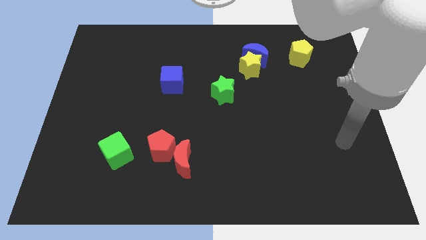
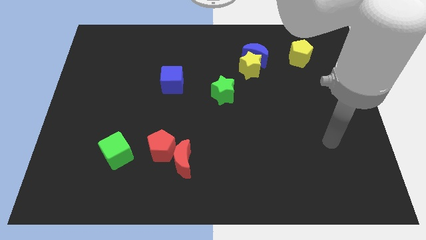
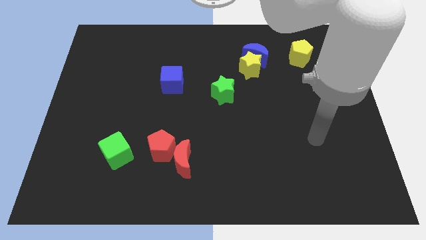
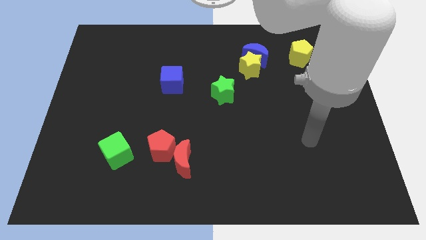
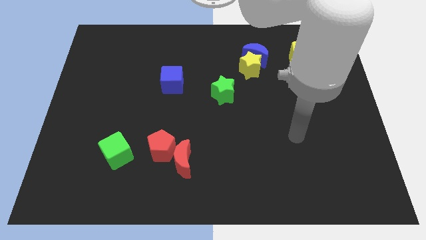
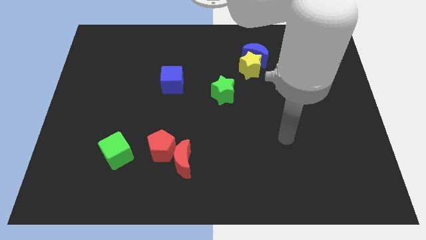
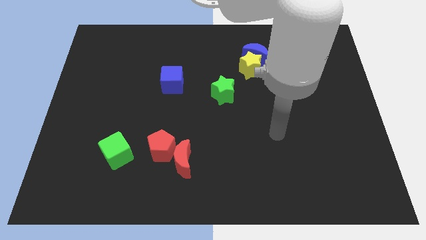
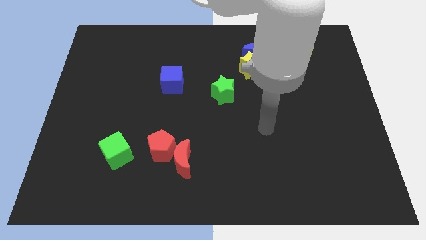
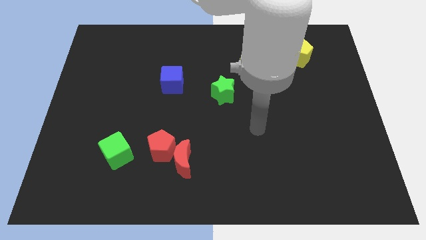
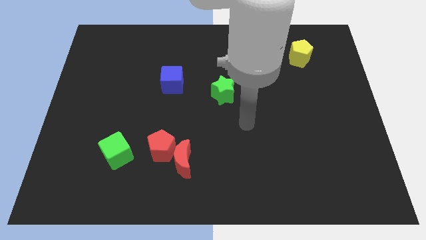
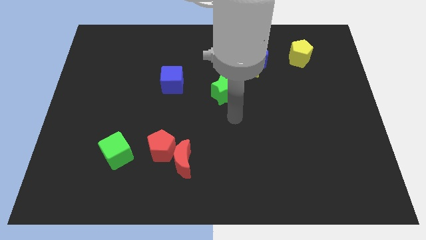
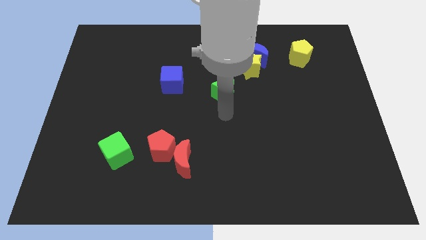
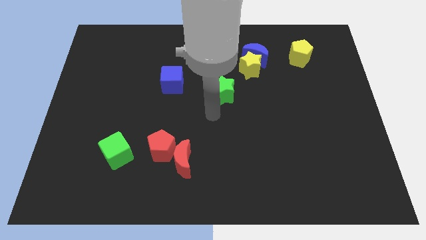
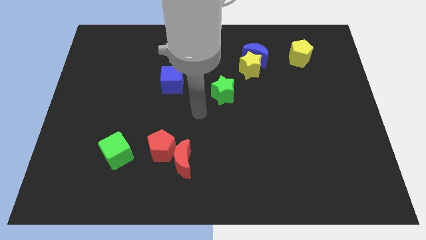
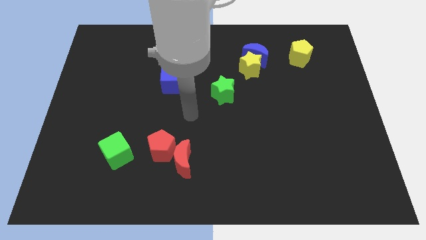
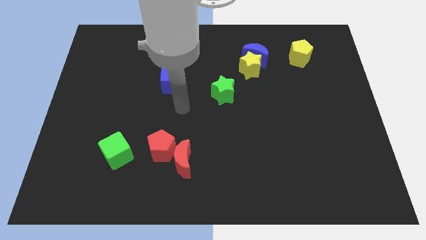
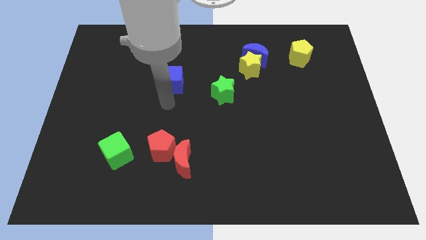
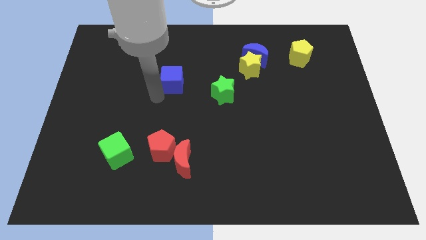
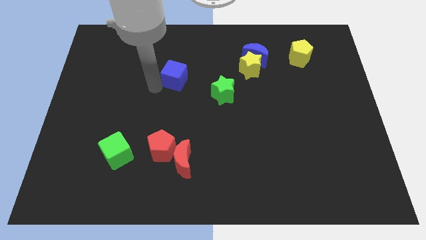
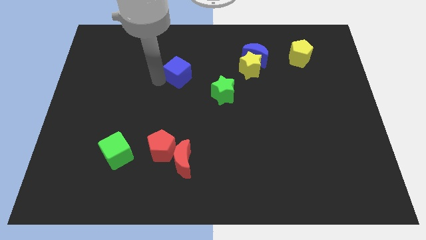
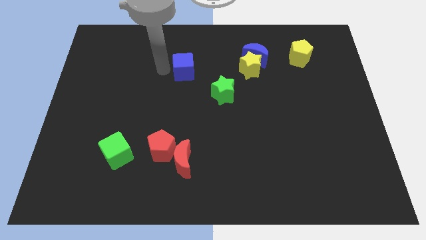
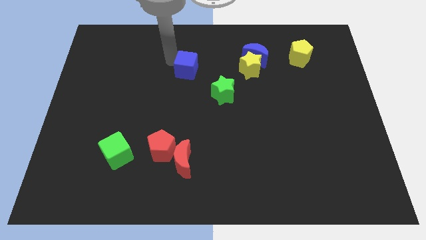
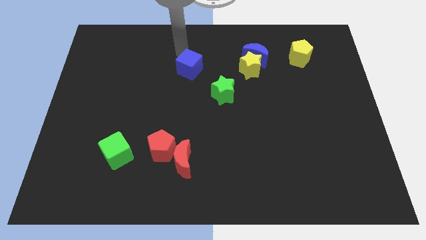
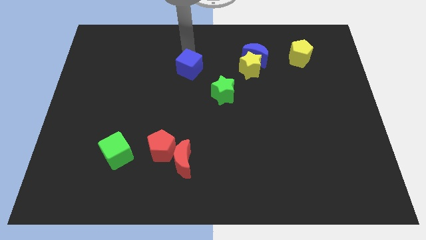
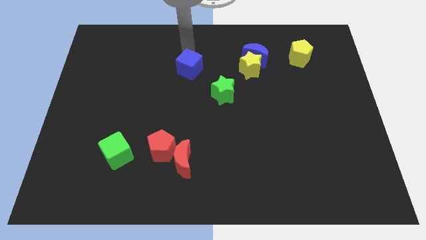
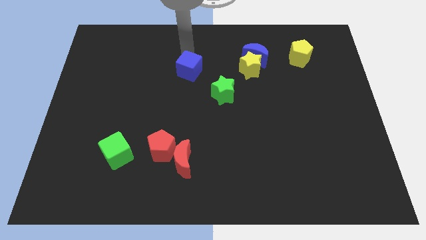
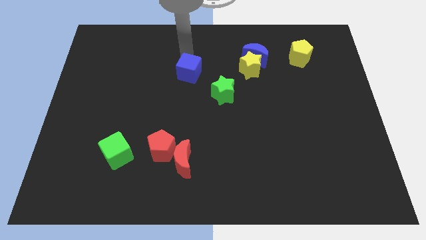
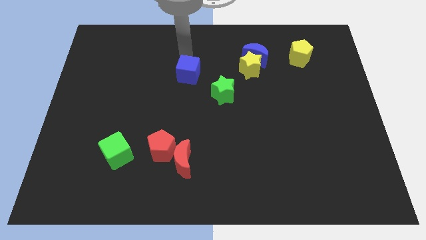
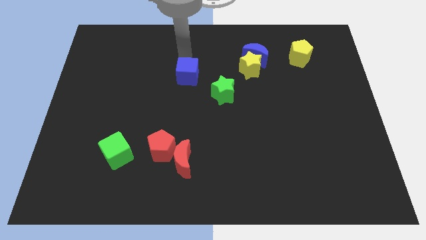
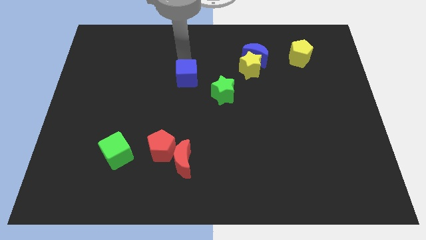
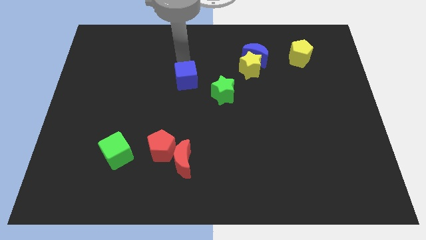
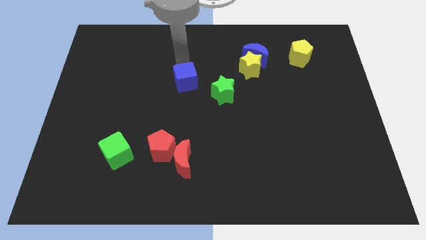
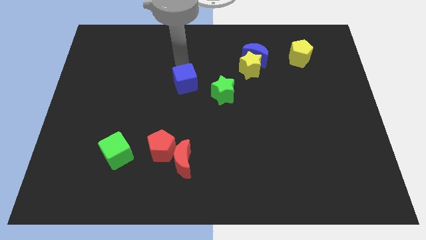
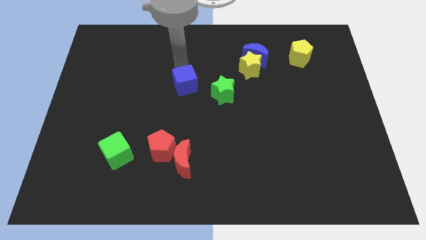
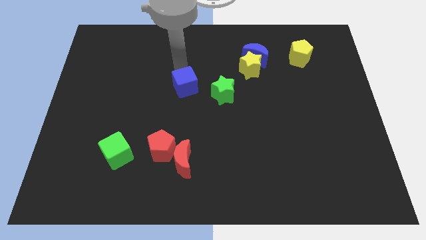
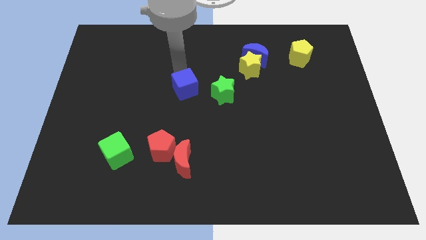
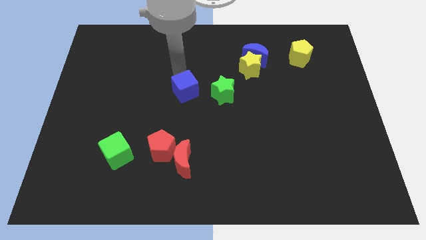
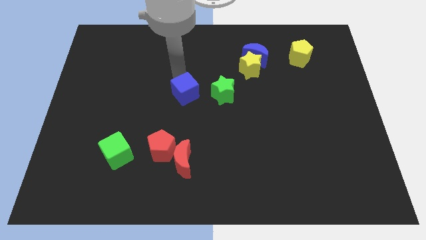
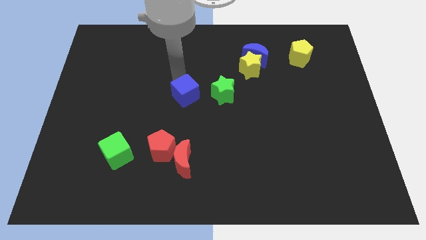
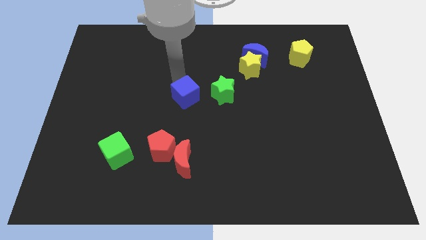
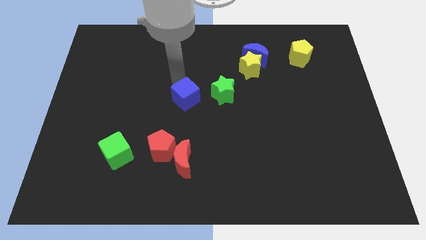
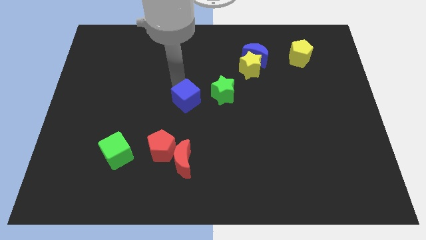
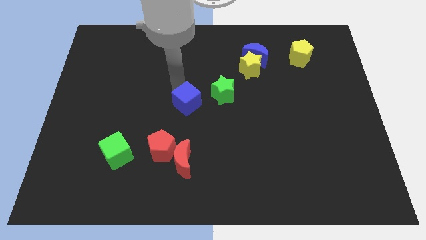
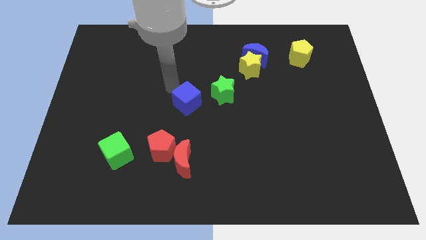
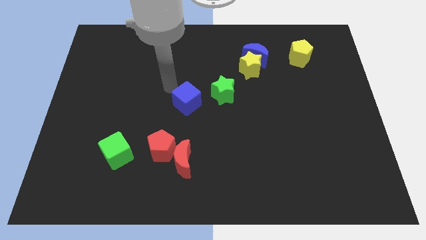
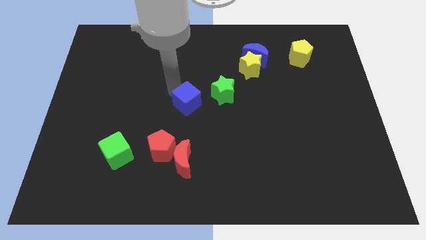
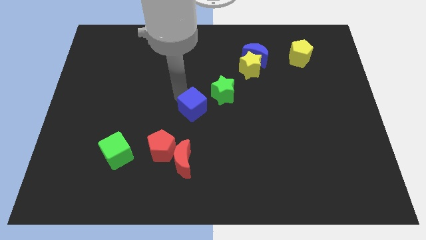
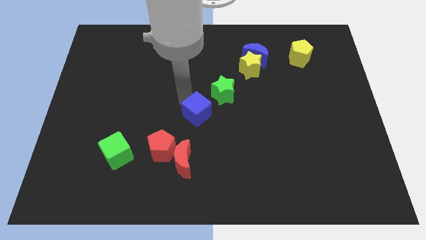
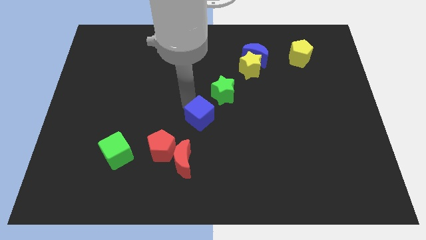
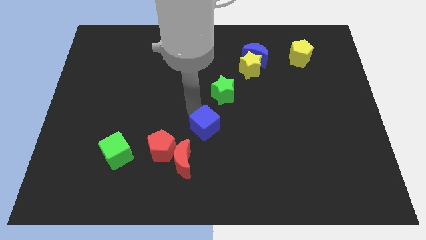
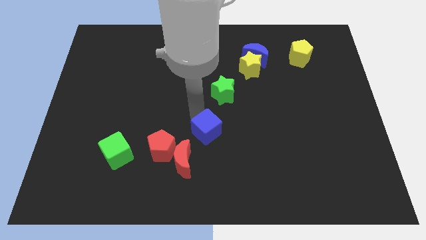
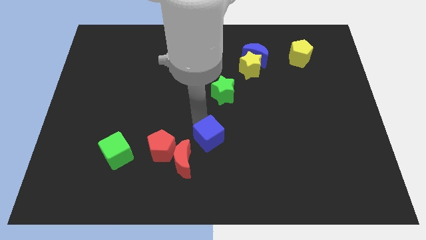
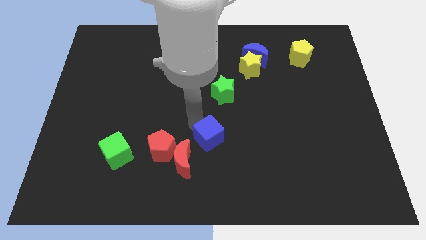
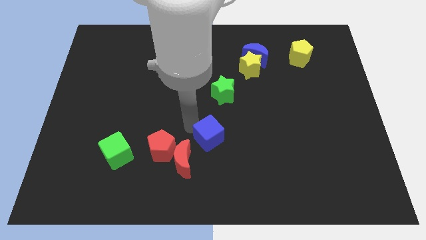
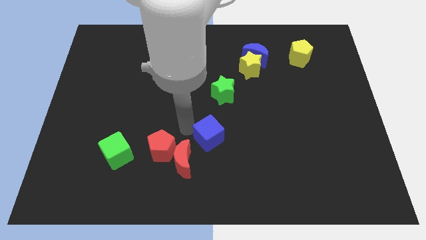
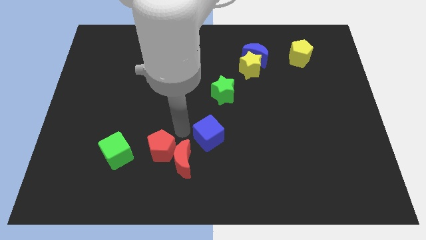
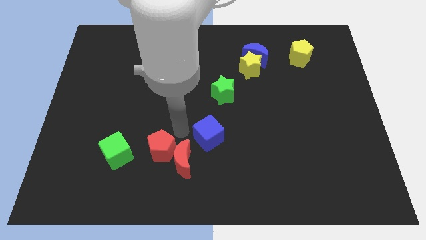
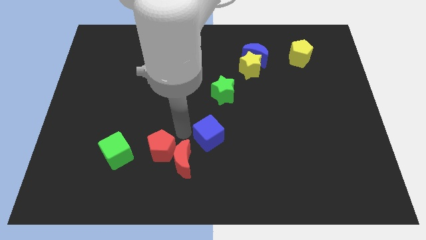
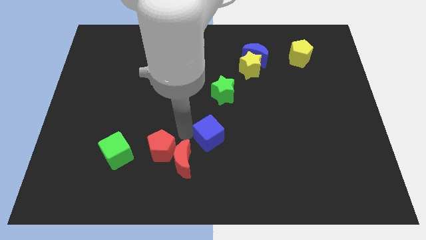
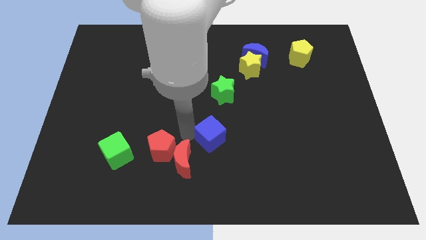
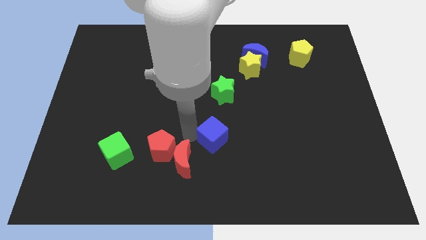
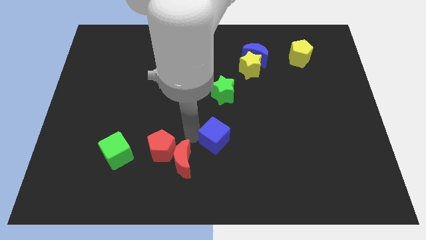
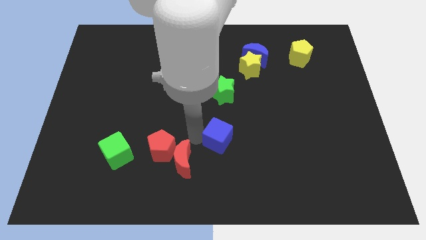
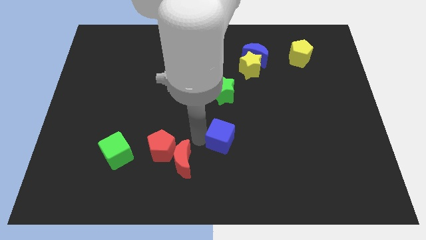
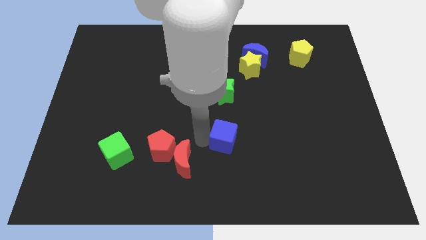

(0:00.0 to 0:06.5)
push the blue cube down and then right

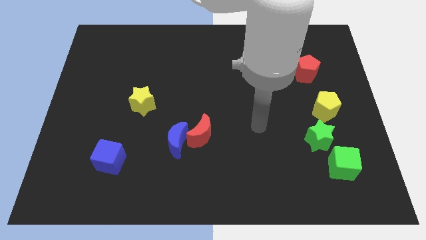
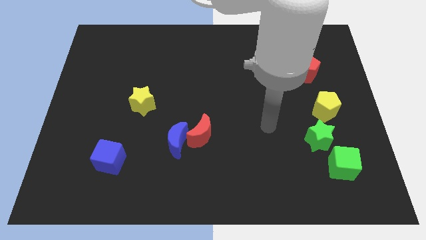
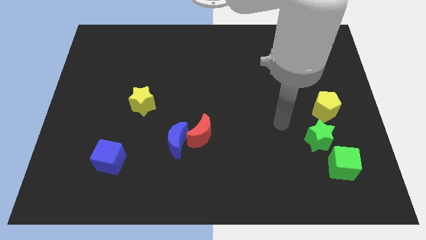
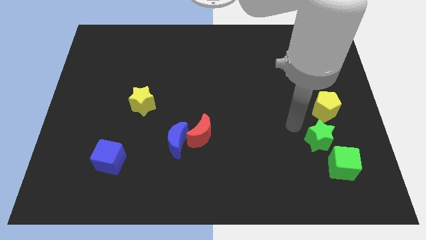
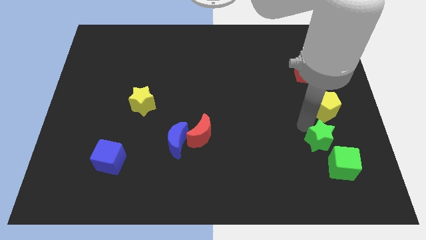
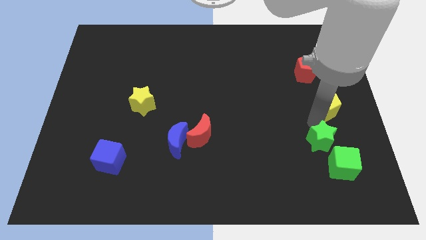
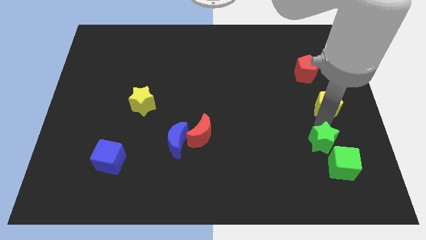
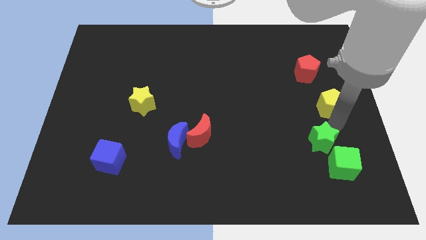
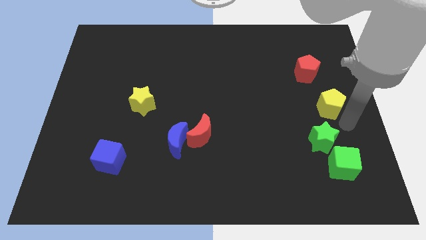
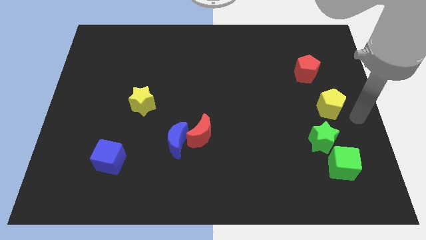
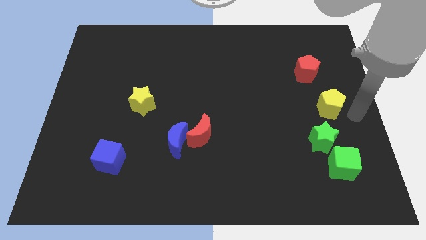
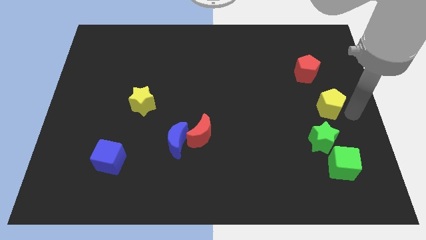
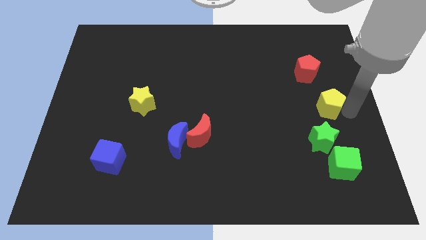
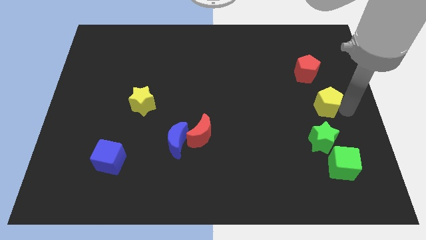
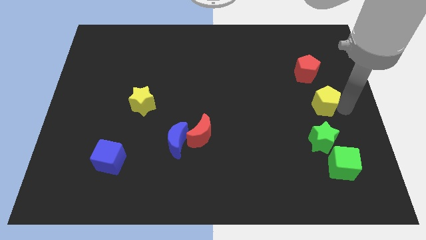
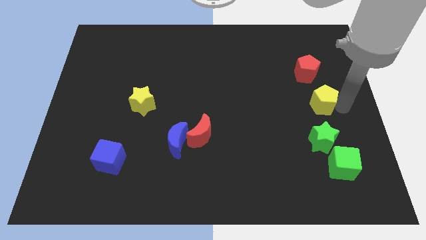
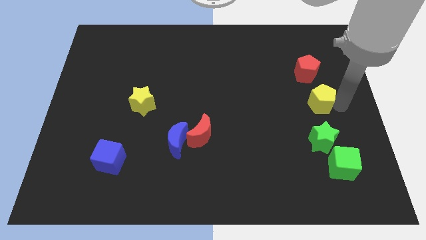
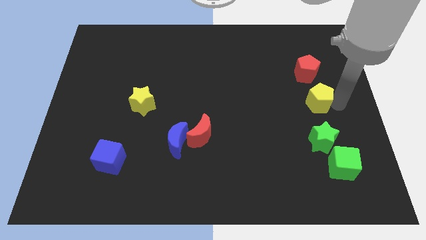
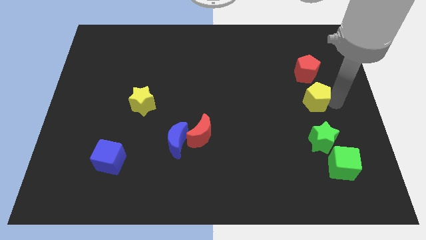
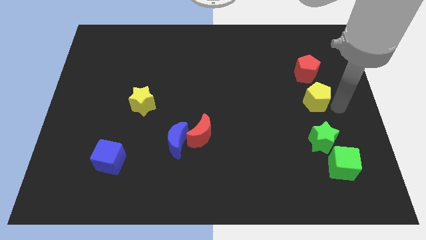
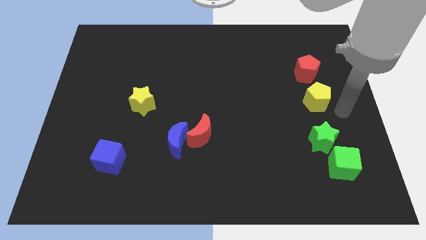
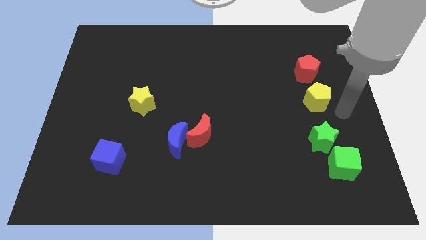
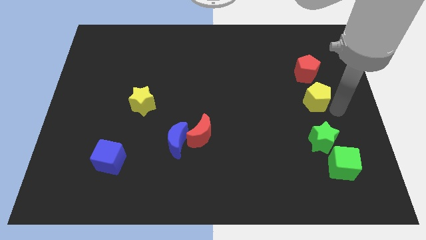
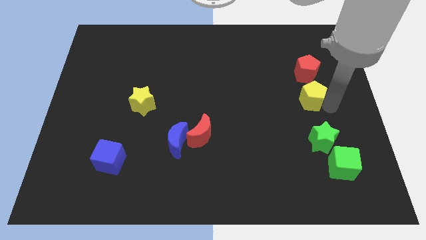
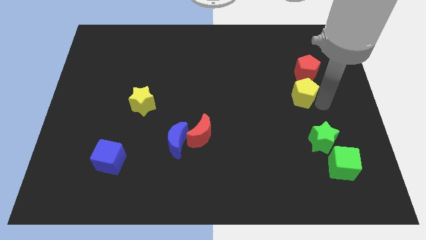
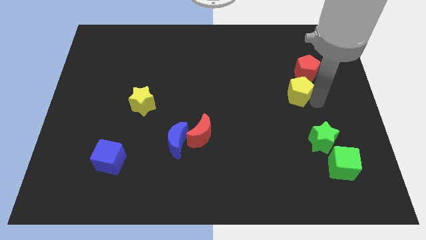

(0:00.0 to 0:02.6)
slightly move the yellow pentagon up and then to the left
